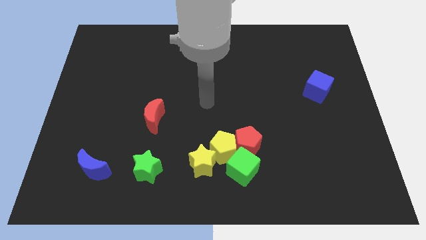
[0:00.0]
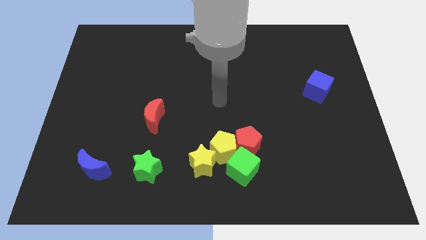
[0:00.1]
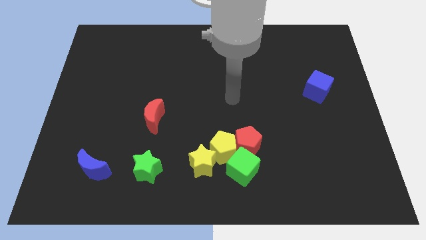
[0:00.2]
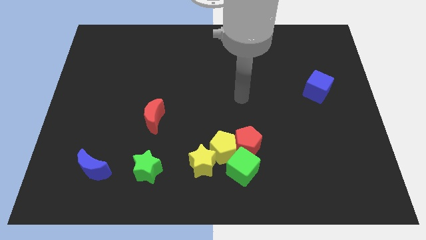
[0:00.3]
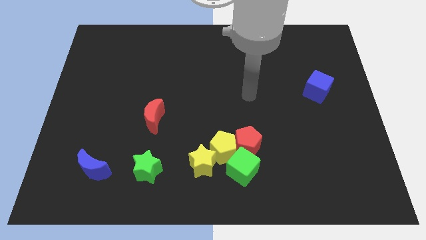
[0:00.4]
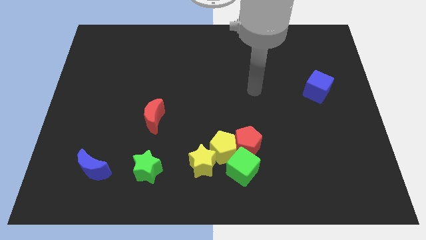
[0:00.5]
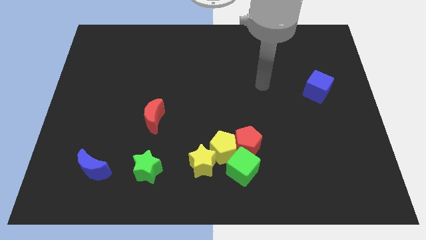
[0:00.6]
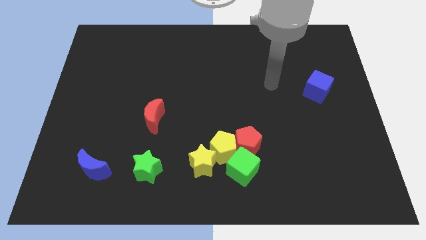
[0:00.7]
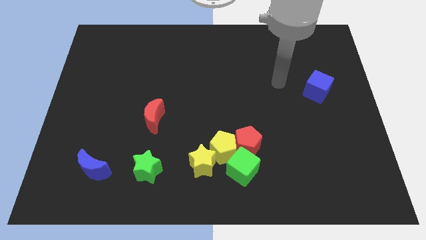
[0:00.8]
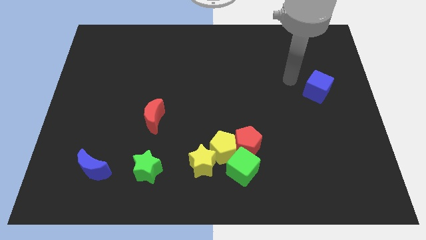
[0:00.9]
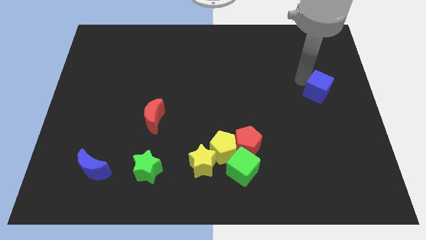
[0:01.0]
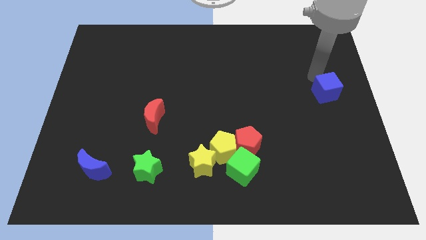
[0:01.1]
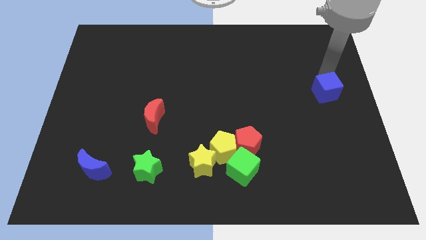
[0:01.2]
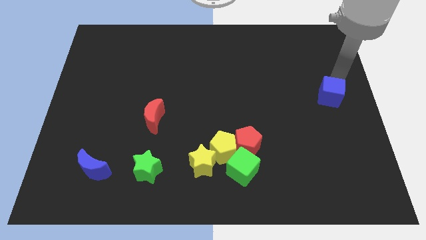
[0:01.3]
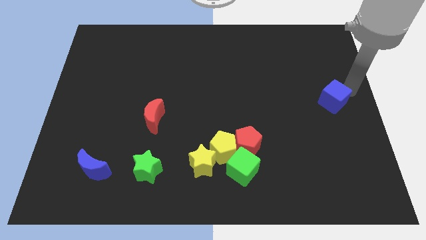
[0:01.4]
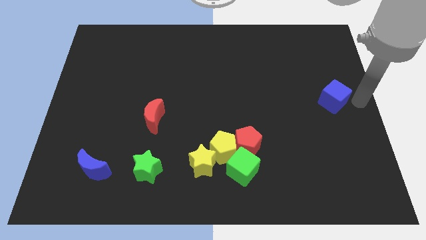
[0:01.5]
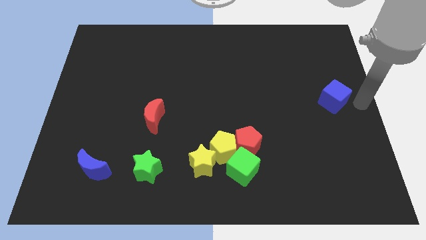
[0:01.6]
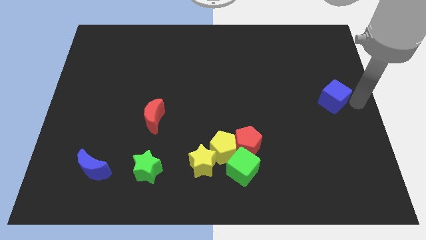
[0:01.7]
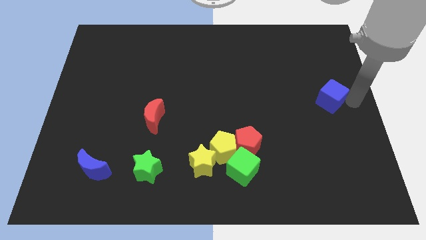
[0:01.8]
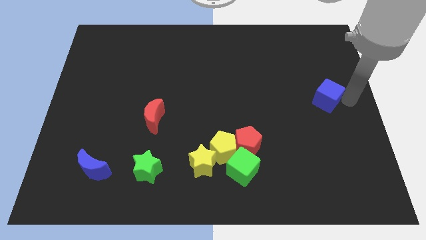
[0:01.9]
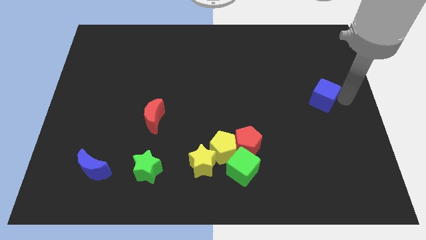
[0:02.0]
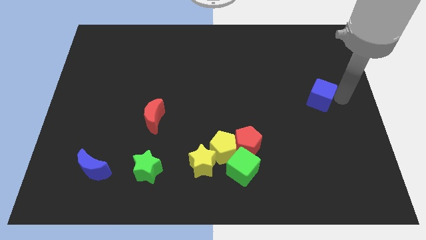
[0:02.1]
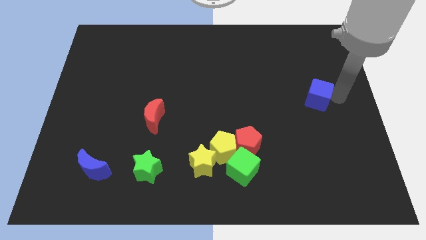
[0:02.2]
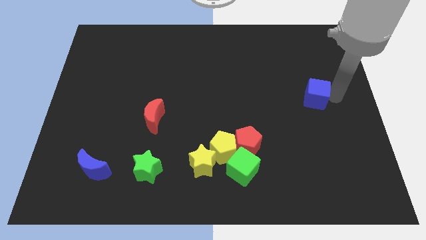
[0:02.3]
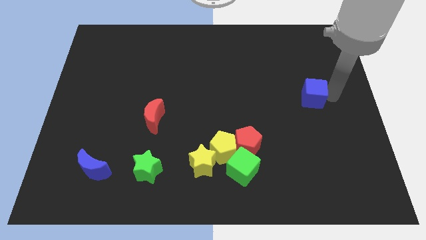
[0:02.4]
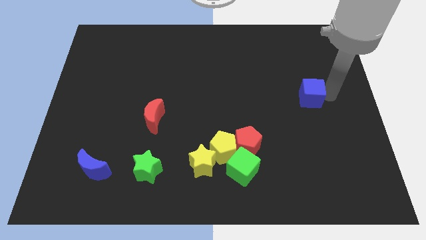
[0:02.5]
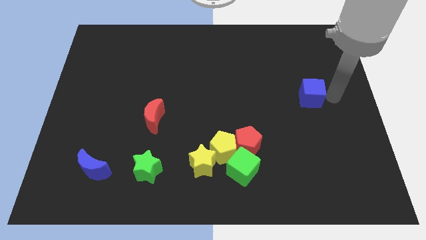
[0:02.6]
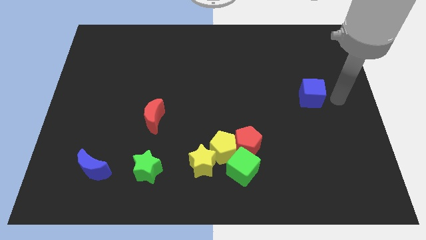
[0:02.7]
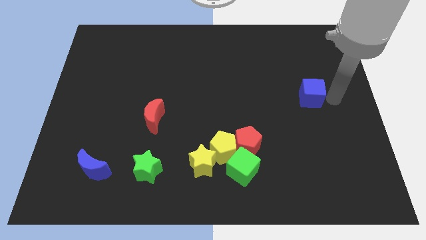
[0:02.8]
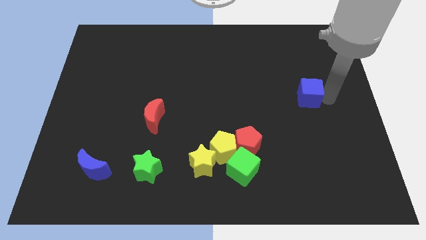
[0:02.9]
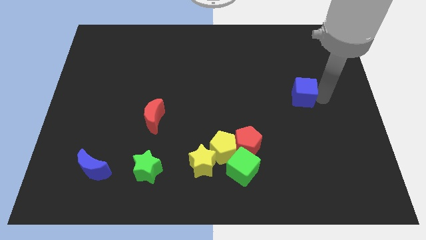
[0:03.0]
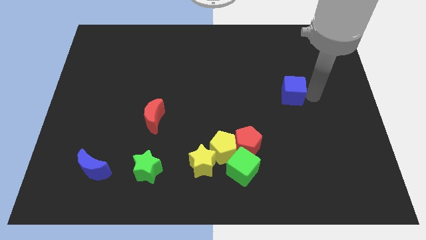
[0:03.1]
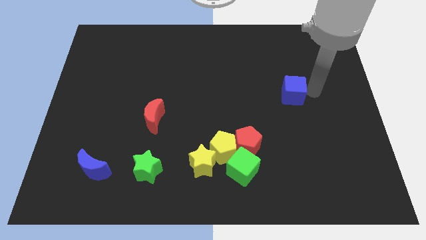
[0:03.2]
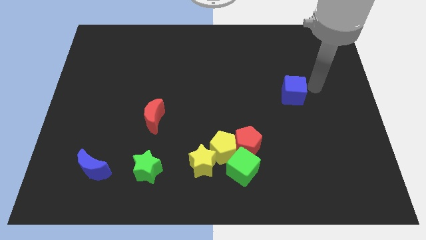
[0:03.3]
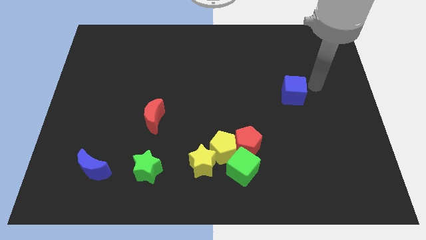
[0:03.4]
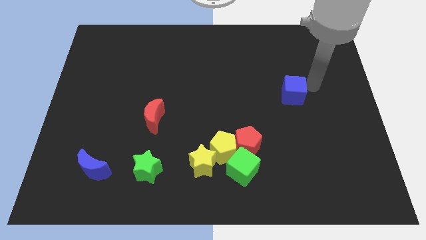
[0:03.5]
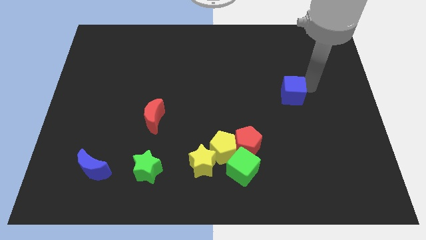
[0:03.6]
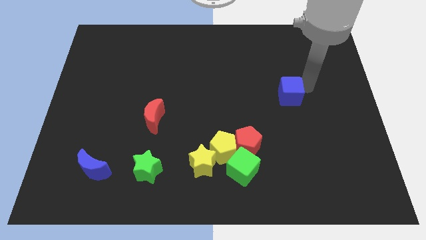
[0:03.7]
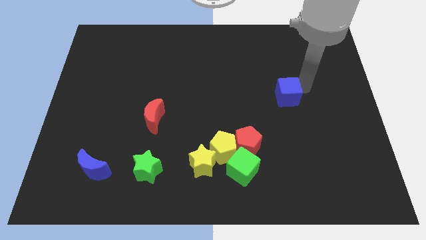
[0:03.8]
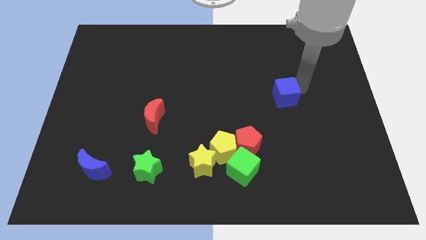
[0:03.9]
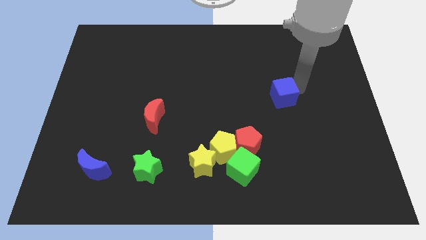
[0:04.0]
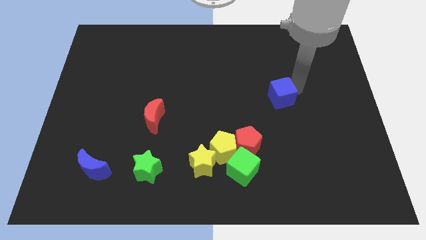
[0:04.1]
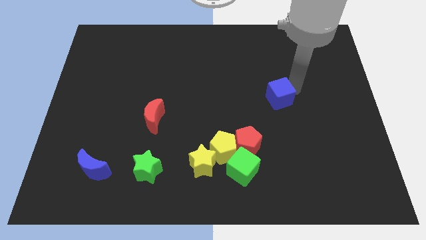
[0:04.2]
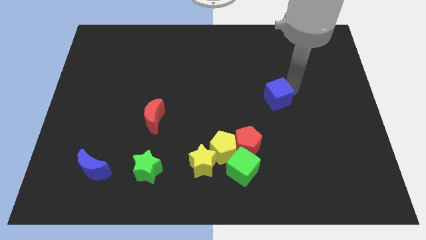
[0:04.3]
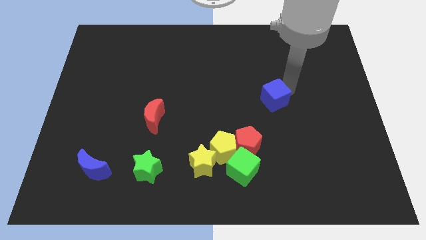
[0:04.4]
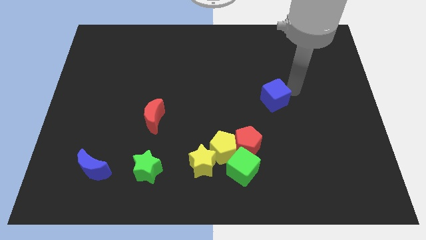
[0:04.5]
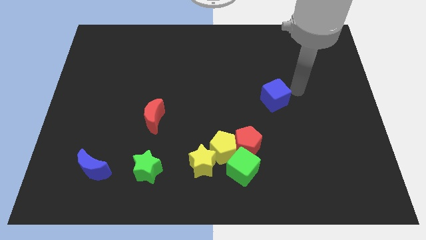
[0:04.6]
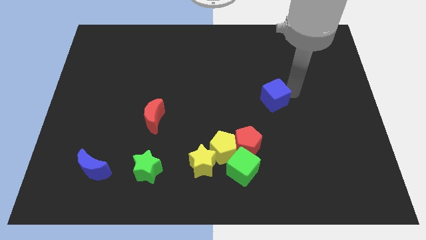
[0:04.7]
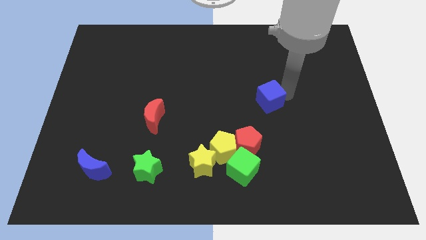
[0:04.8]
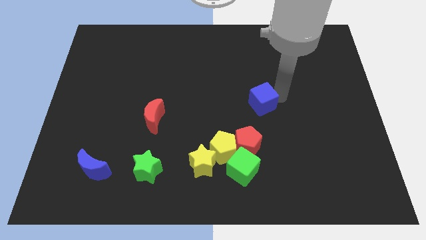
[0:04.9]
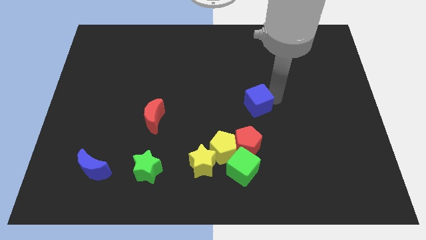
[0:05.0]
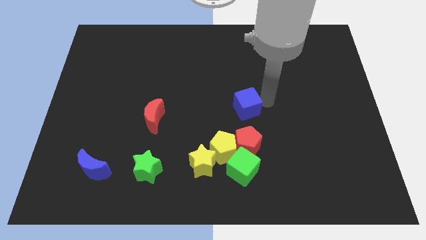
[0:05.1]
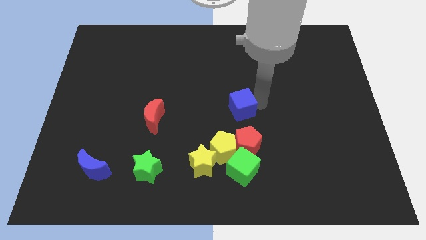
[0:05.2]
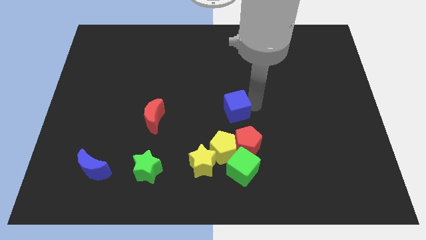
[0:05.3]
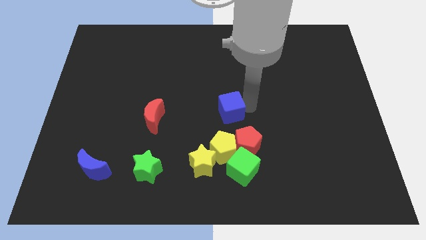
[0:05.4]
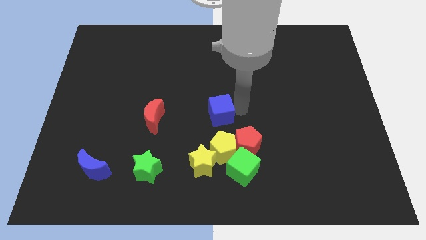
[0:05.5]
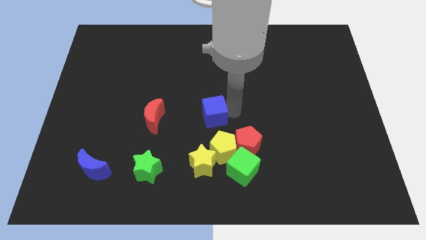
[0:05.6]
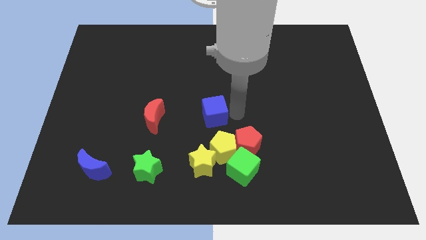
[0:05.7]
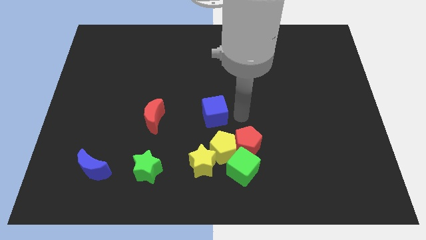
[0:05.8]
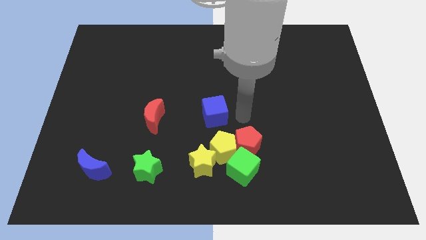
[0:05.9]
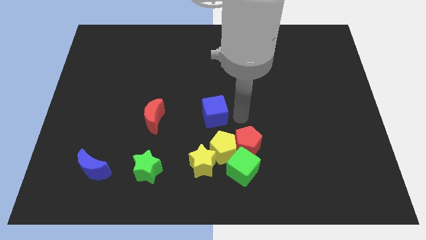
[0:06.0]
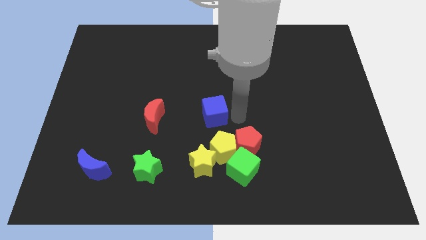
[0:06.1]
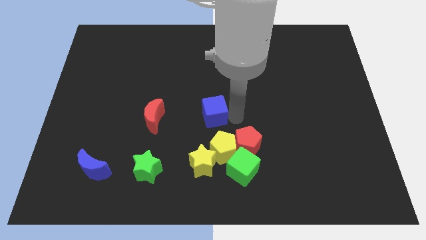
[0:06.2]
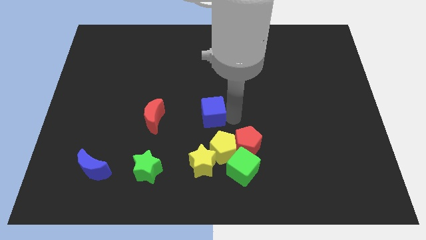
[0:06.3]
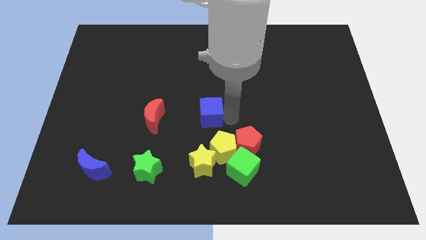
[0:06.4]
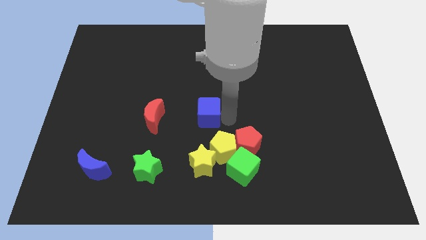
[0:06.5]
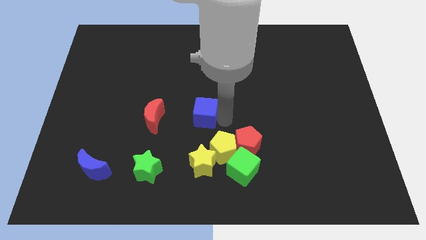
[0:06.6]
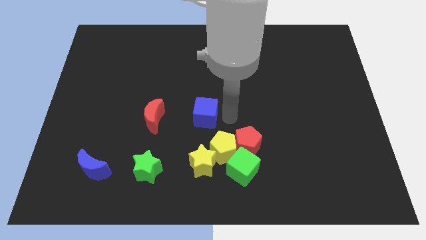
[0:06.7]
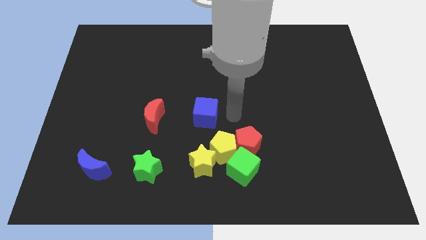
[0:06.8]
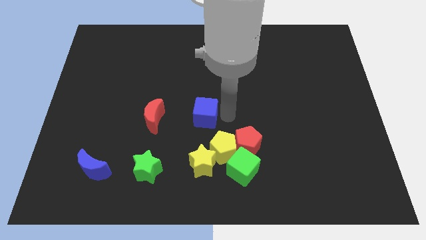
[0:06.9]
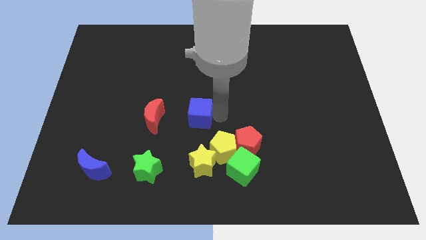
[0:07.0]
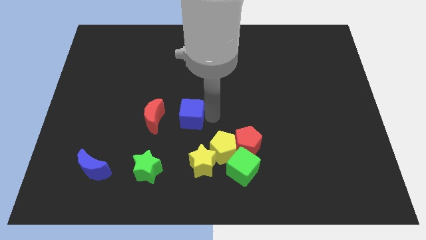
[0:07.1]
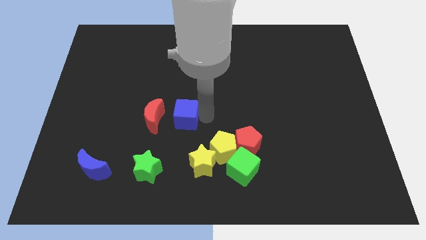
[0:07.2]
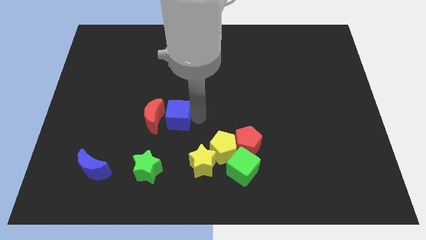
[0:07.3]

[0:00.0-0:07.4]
push the blue cube towards the red moon
